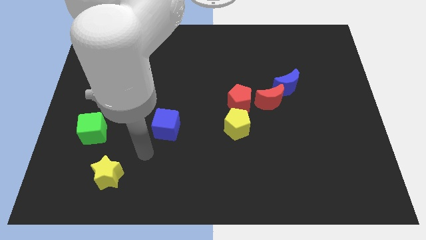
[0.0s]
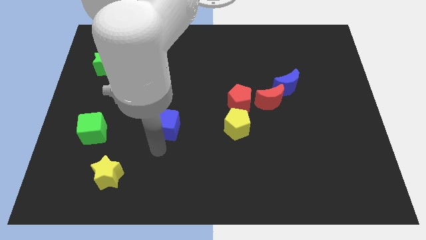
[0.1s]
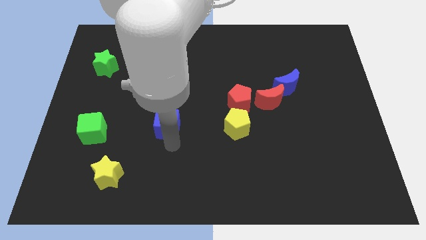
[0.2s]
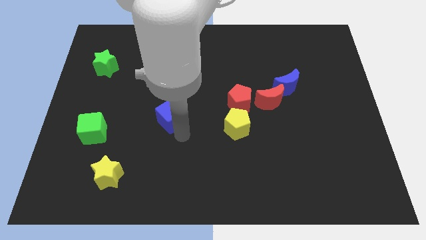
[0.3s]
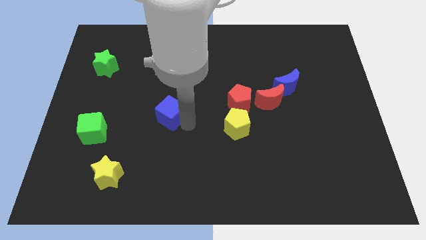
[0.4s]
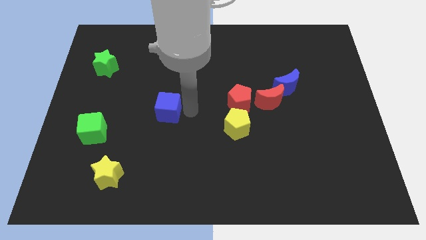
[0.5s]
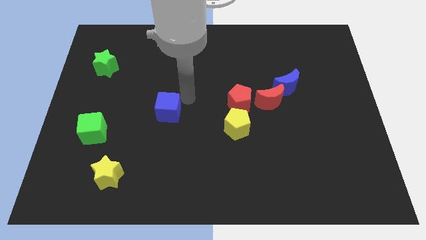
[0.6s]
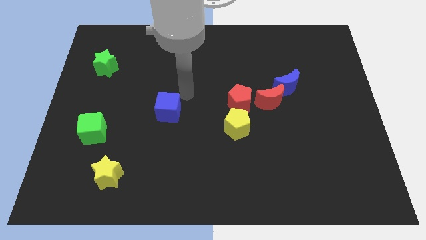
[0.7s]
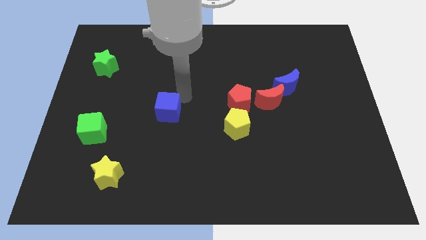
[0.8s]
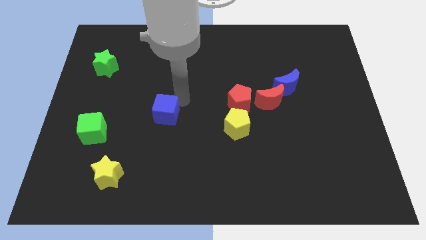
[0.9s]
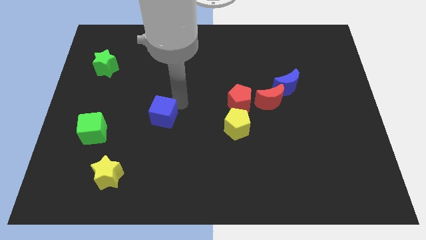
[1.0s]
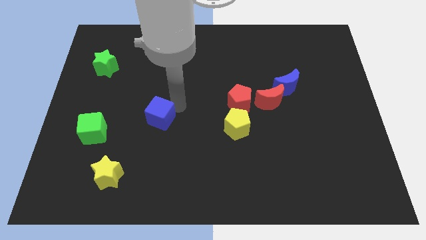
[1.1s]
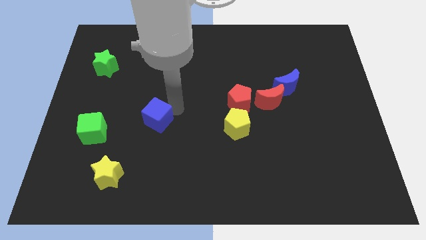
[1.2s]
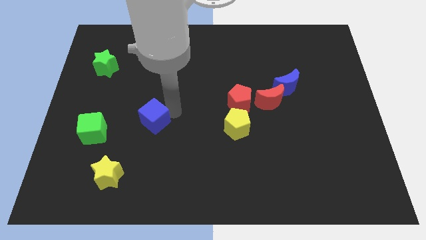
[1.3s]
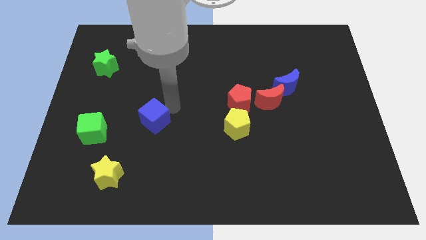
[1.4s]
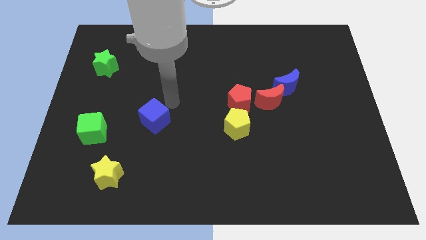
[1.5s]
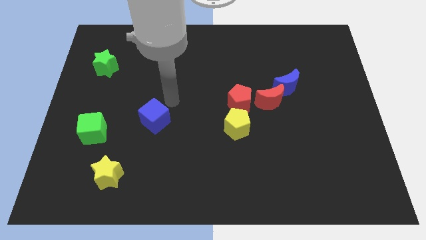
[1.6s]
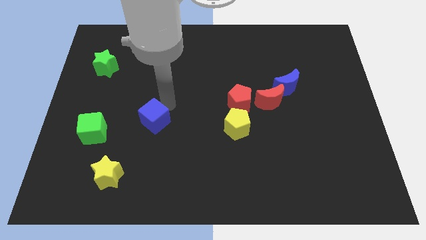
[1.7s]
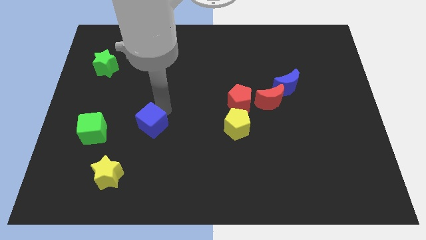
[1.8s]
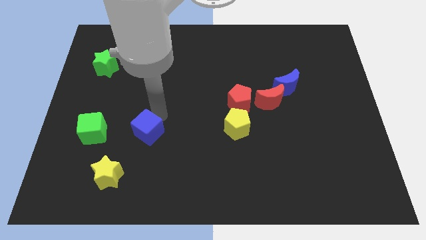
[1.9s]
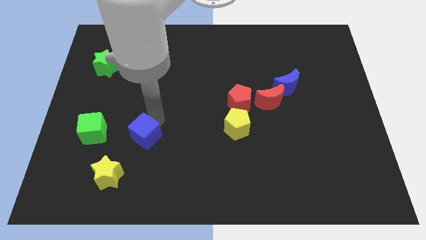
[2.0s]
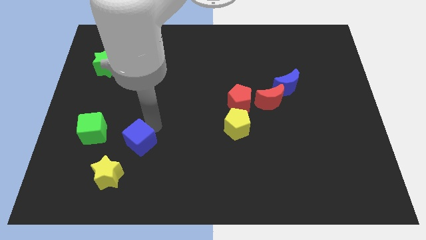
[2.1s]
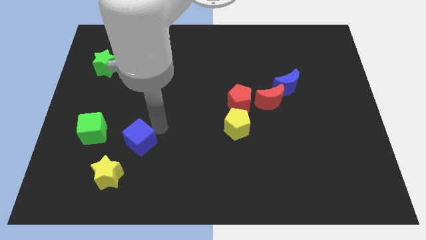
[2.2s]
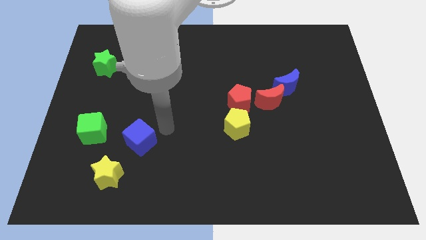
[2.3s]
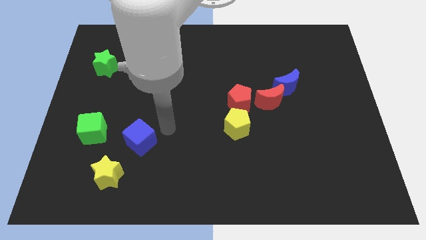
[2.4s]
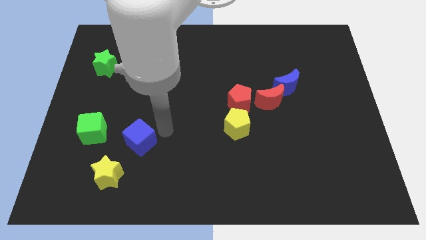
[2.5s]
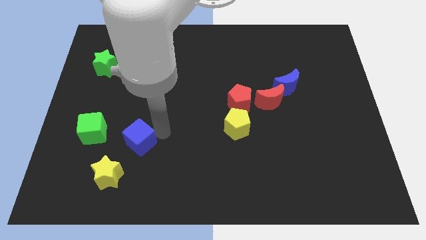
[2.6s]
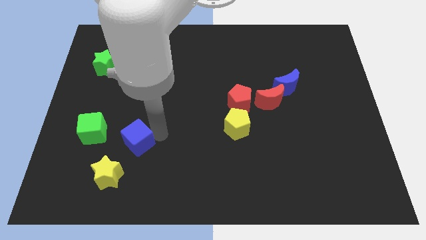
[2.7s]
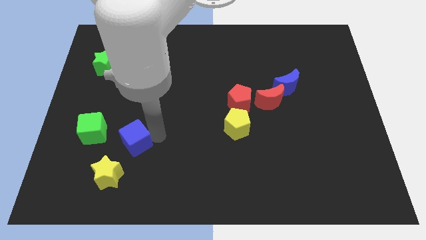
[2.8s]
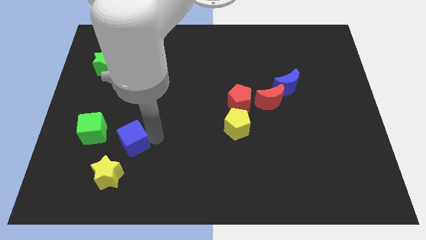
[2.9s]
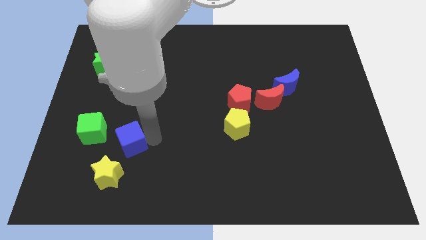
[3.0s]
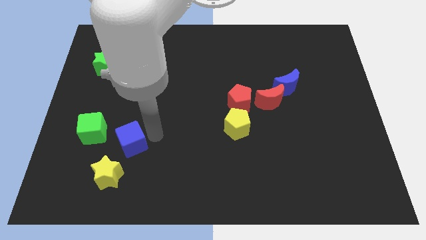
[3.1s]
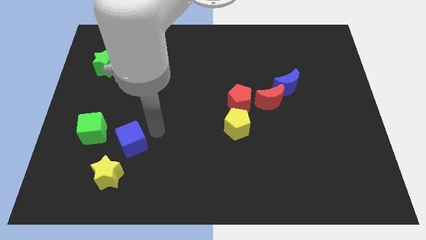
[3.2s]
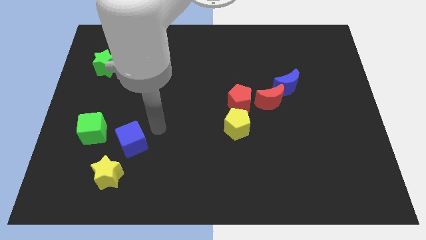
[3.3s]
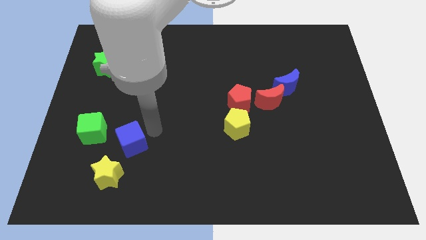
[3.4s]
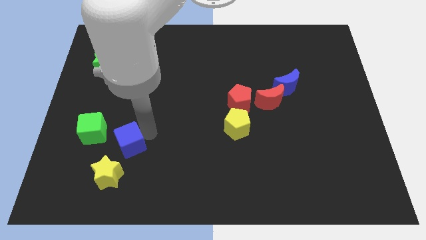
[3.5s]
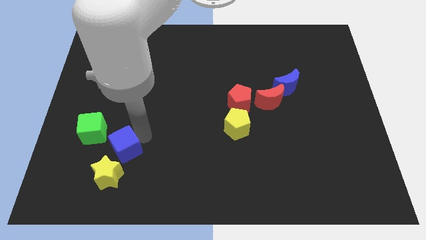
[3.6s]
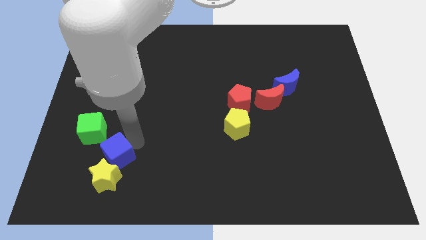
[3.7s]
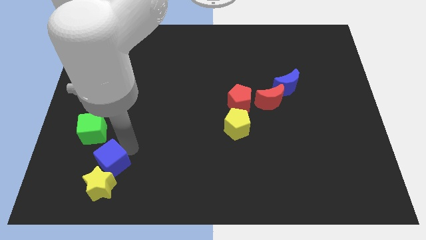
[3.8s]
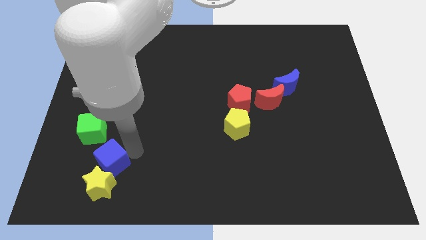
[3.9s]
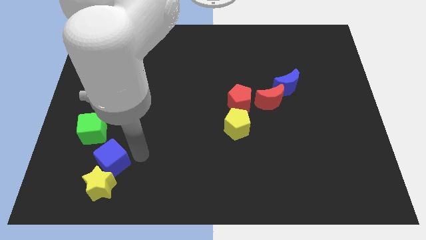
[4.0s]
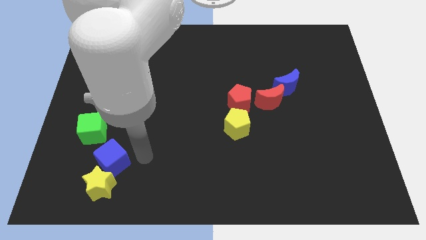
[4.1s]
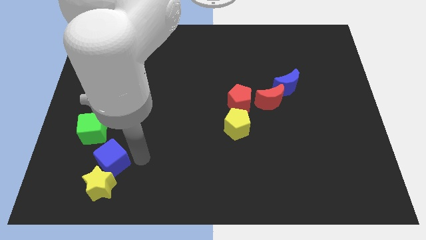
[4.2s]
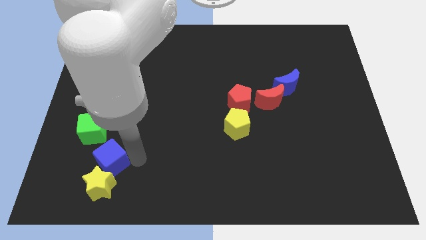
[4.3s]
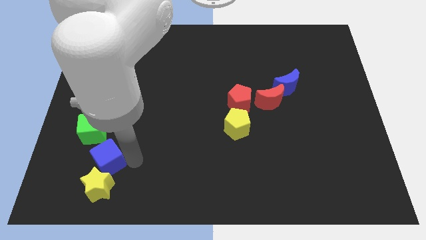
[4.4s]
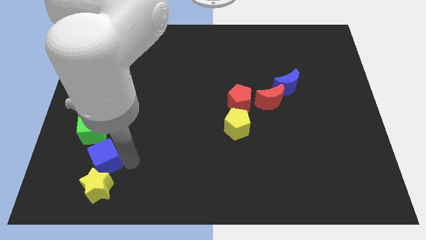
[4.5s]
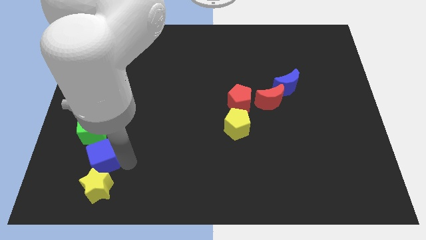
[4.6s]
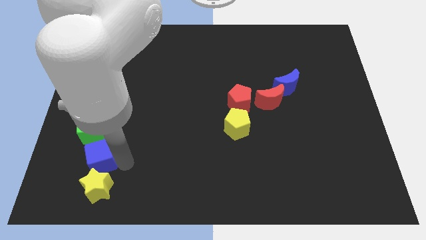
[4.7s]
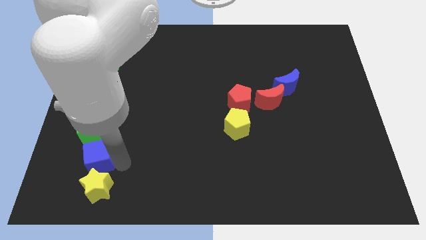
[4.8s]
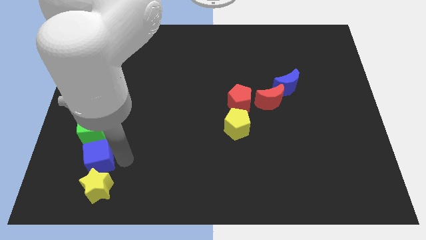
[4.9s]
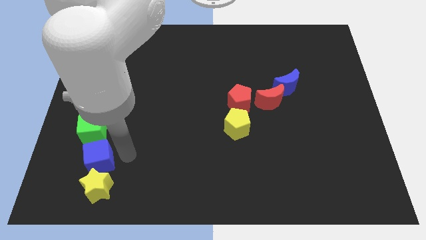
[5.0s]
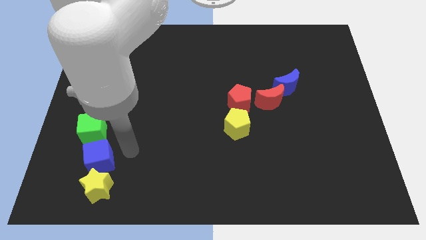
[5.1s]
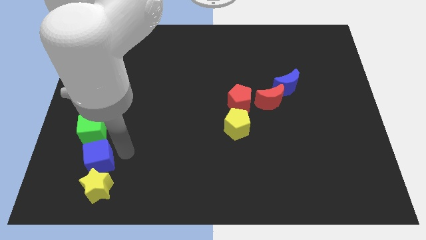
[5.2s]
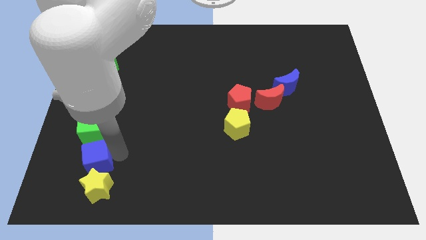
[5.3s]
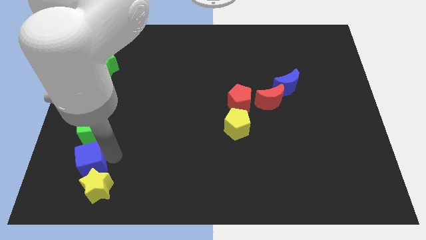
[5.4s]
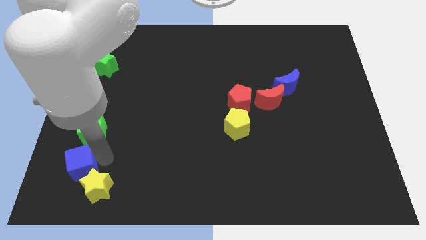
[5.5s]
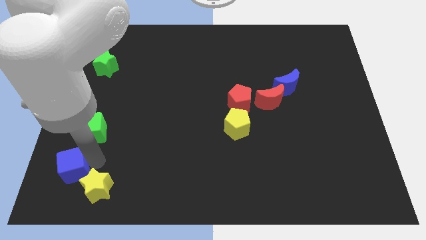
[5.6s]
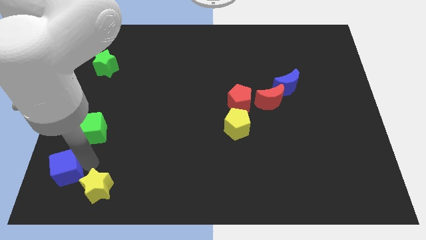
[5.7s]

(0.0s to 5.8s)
slide the blue cube to the bottom left
